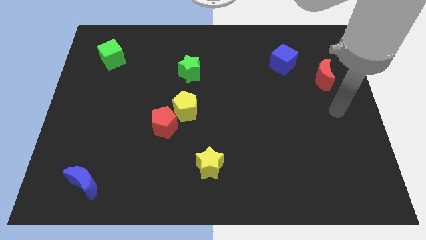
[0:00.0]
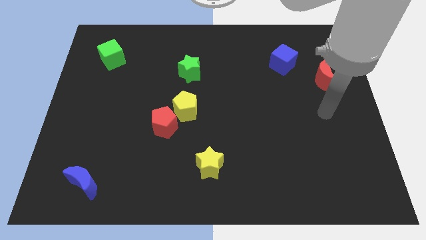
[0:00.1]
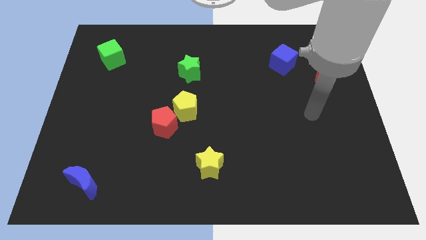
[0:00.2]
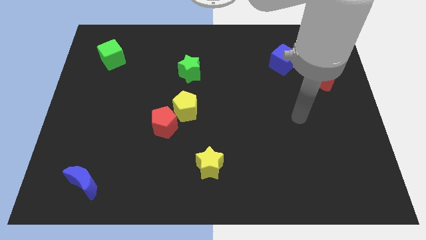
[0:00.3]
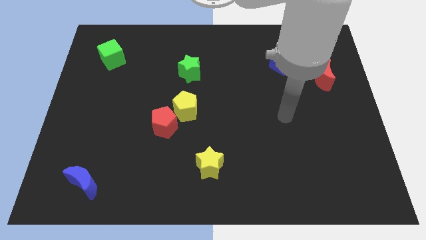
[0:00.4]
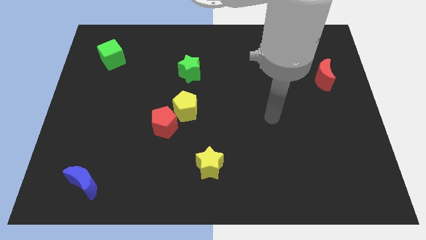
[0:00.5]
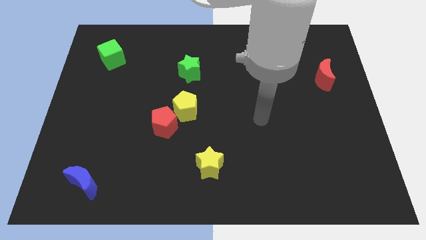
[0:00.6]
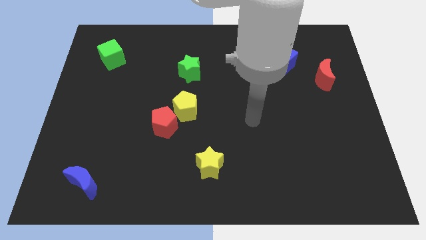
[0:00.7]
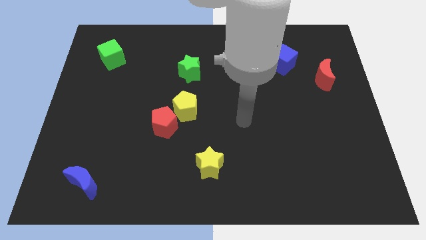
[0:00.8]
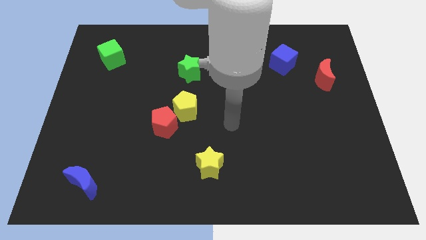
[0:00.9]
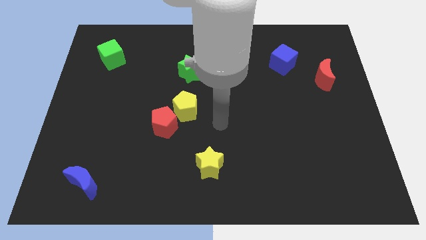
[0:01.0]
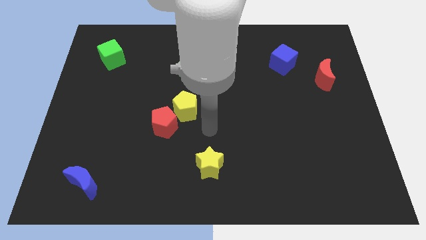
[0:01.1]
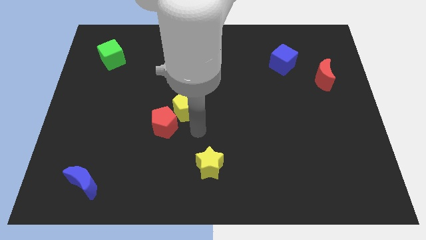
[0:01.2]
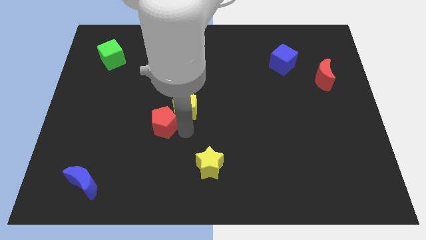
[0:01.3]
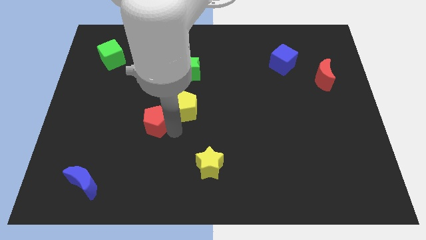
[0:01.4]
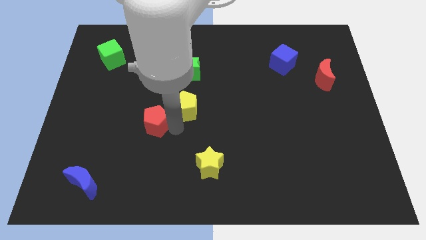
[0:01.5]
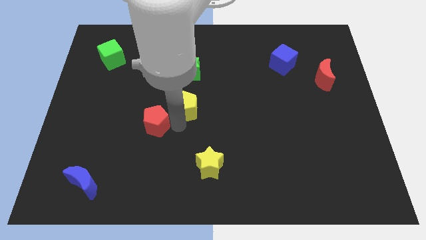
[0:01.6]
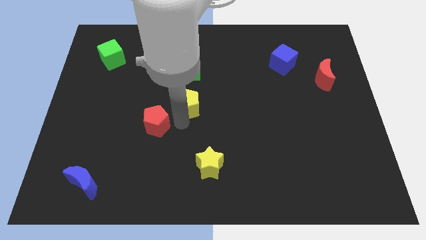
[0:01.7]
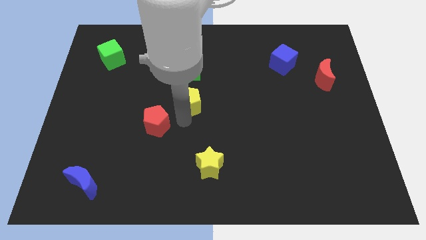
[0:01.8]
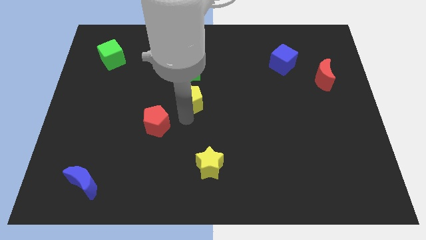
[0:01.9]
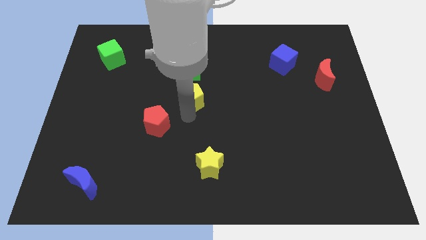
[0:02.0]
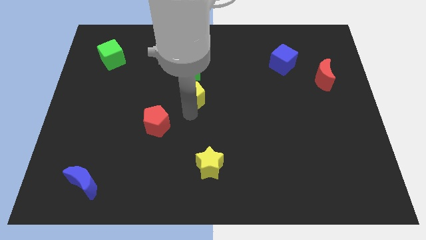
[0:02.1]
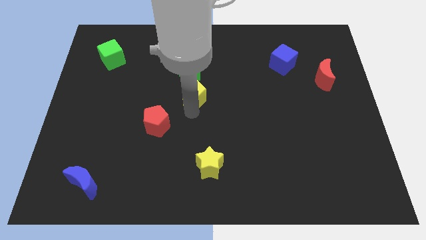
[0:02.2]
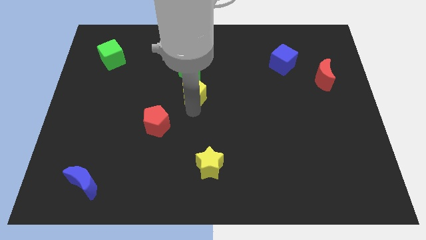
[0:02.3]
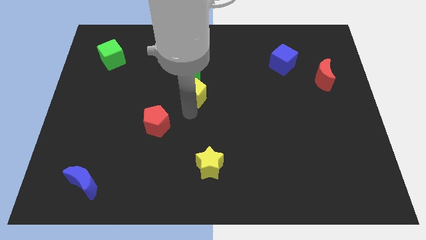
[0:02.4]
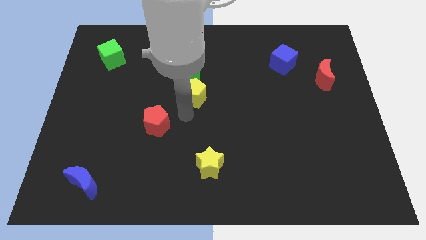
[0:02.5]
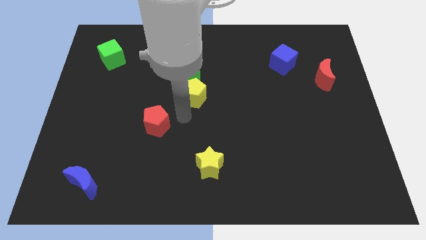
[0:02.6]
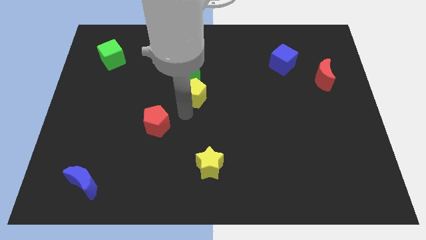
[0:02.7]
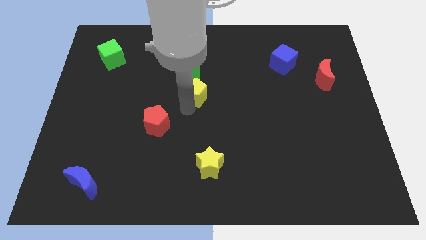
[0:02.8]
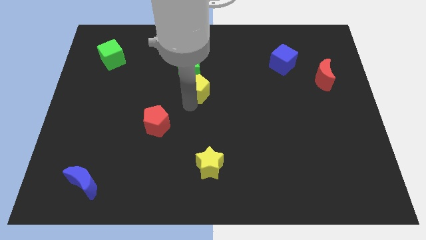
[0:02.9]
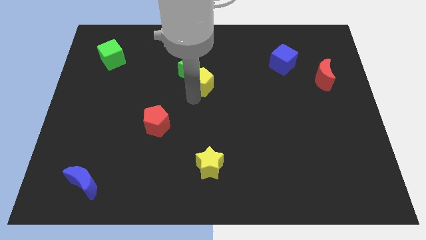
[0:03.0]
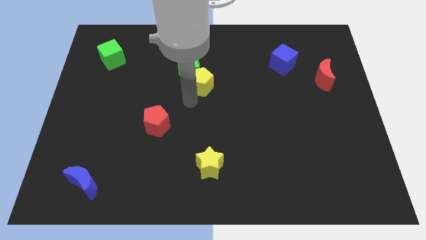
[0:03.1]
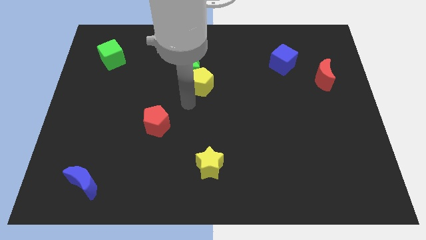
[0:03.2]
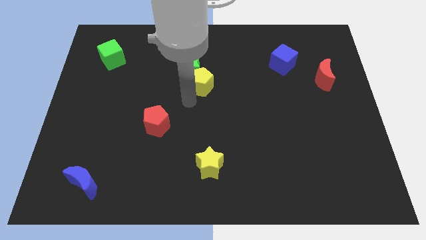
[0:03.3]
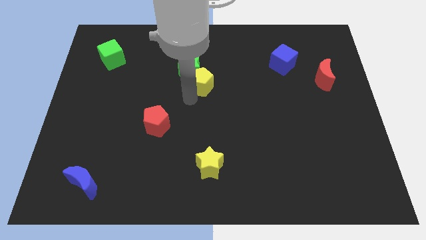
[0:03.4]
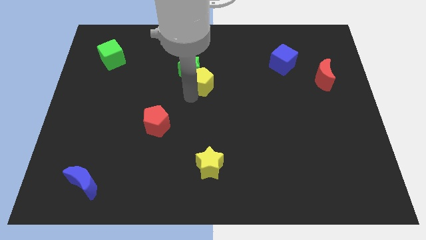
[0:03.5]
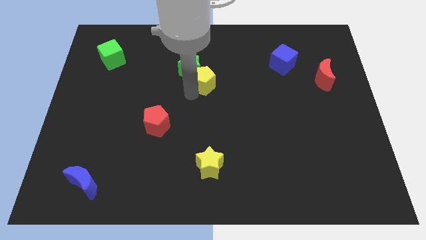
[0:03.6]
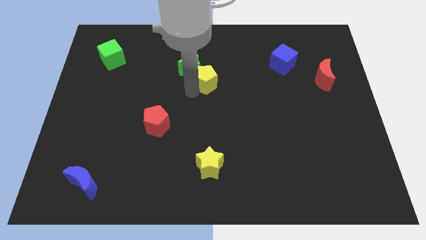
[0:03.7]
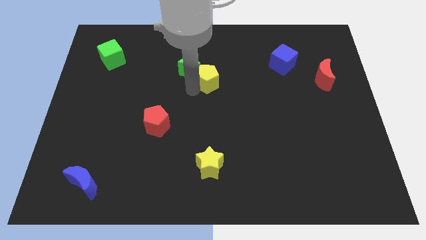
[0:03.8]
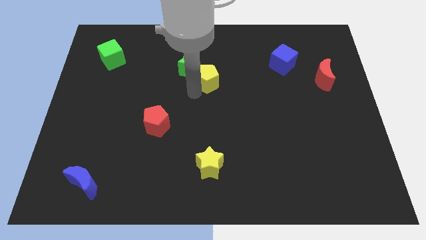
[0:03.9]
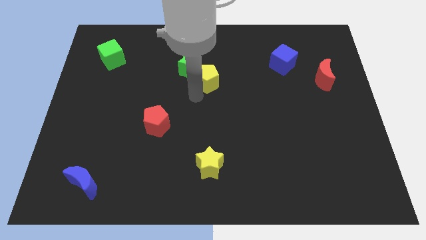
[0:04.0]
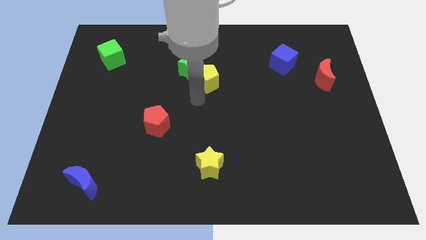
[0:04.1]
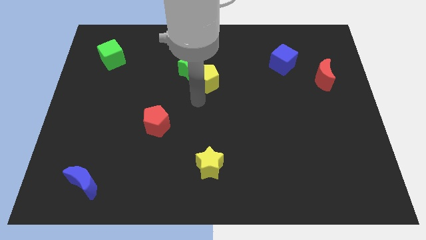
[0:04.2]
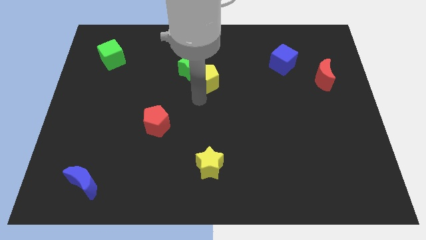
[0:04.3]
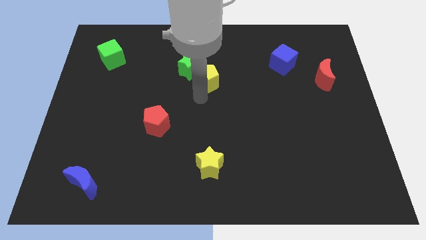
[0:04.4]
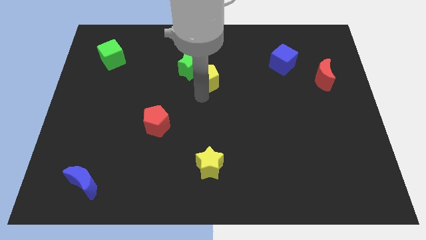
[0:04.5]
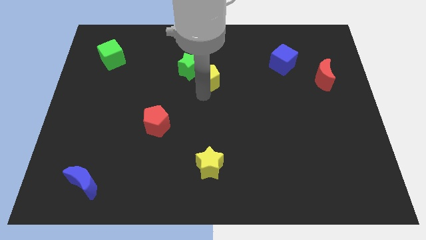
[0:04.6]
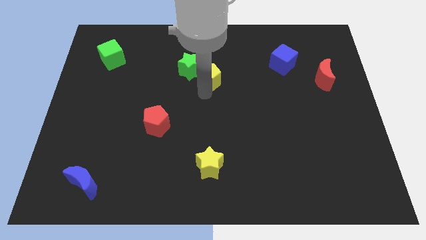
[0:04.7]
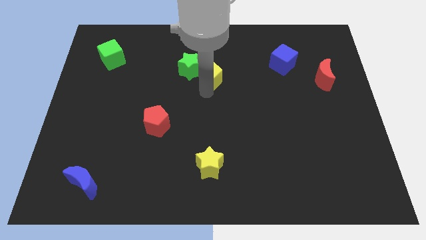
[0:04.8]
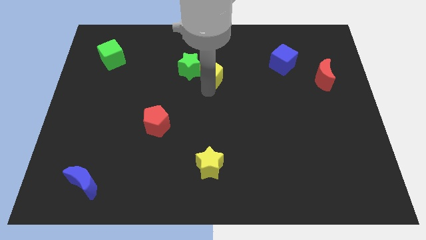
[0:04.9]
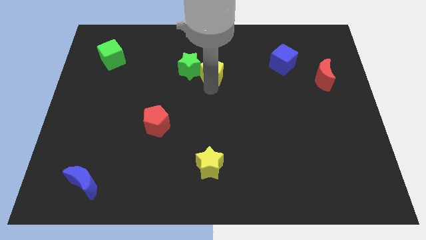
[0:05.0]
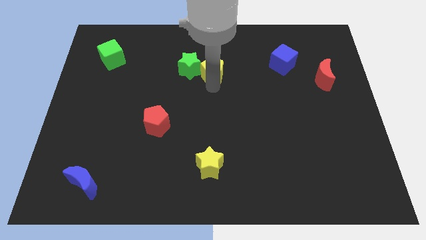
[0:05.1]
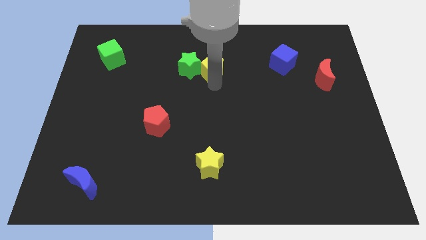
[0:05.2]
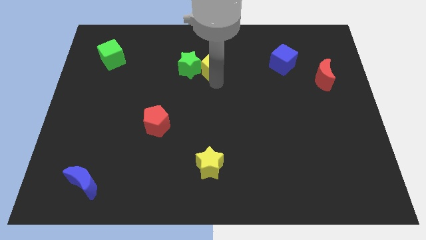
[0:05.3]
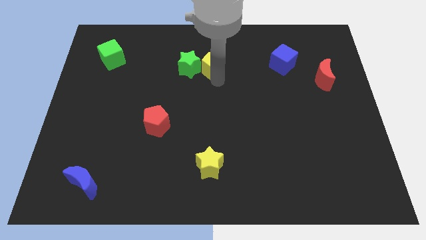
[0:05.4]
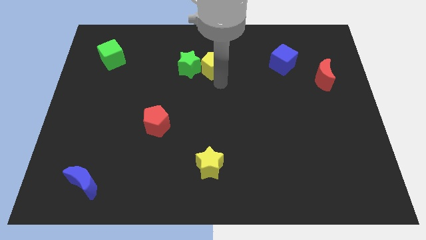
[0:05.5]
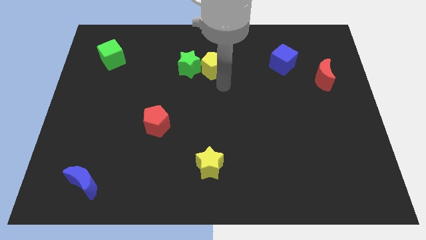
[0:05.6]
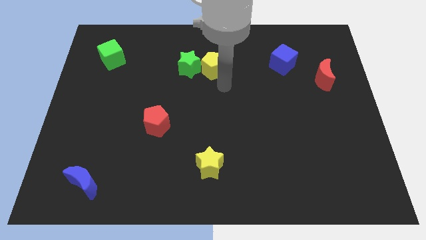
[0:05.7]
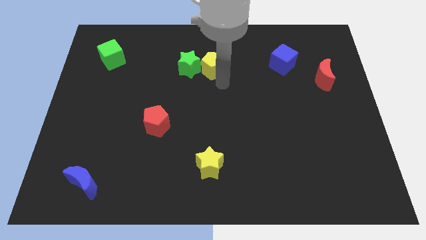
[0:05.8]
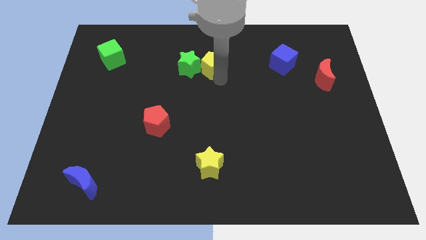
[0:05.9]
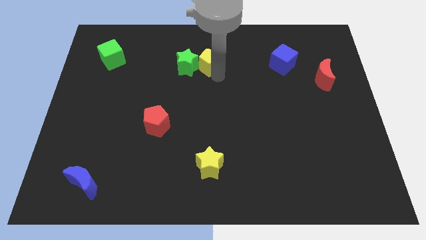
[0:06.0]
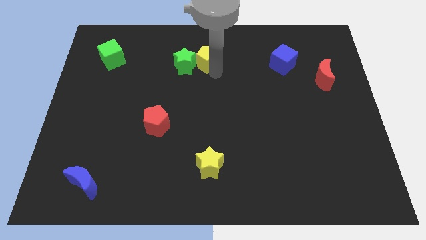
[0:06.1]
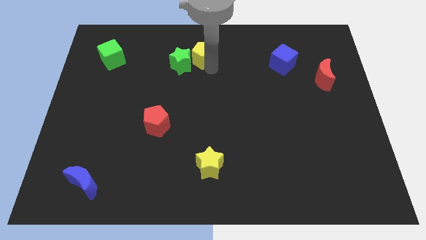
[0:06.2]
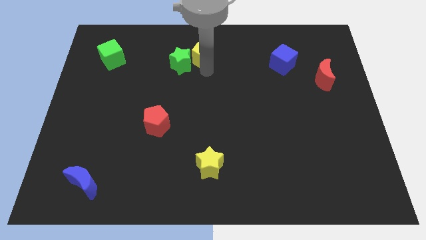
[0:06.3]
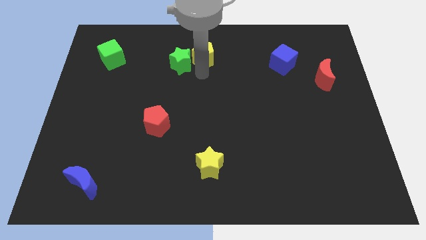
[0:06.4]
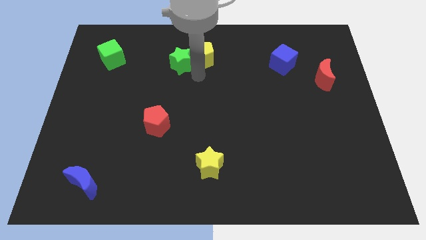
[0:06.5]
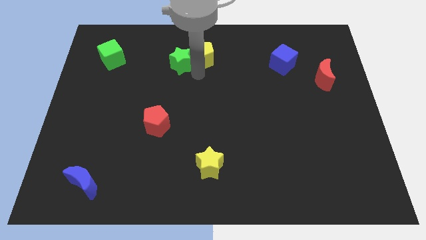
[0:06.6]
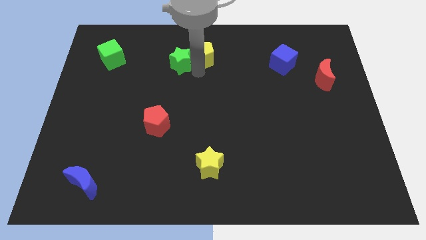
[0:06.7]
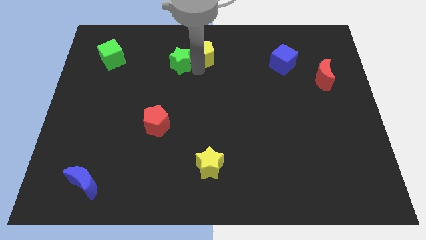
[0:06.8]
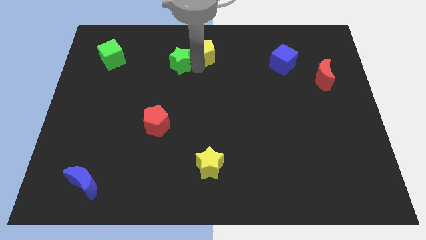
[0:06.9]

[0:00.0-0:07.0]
push the yellow pentagon to the top
